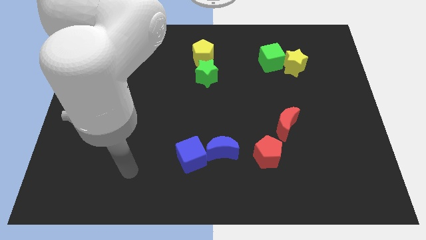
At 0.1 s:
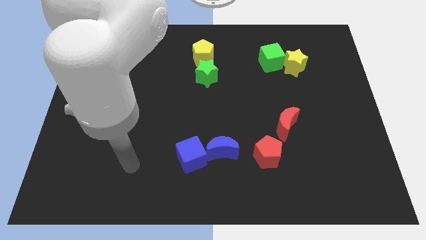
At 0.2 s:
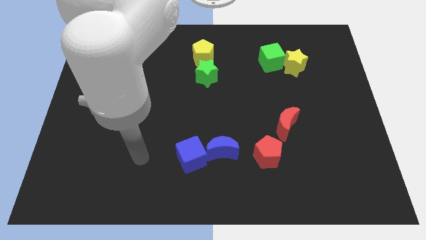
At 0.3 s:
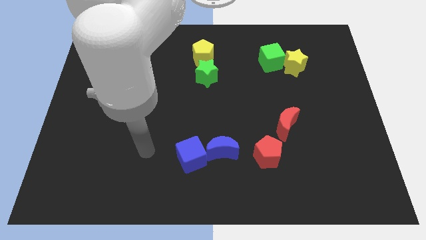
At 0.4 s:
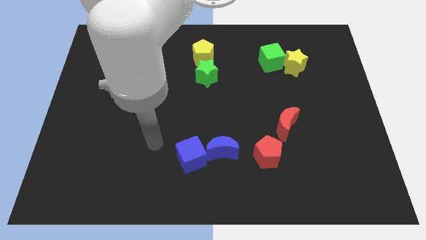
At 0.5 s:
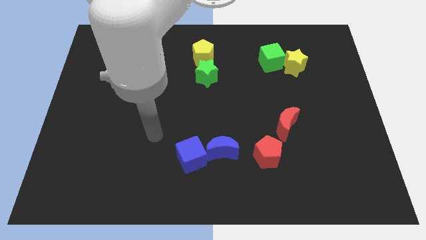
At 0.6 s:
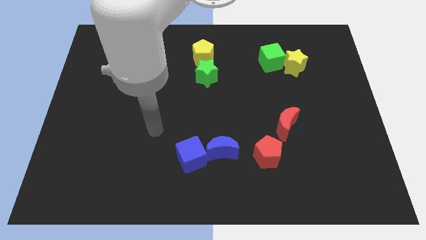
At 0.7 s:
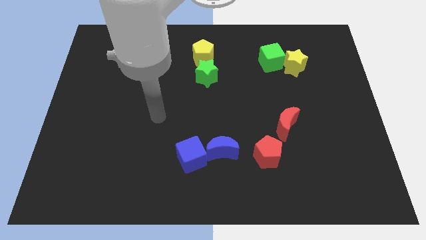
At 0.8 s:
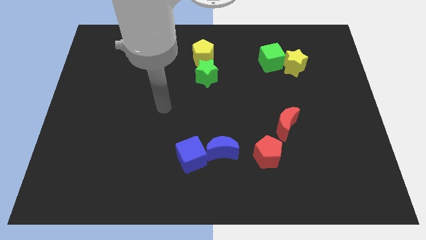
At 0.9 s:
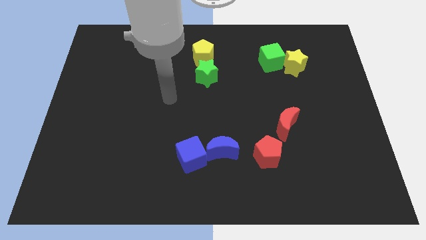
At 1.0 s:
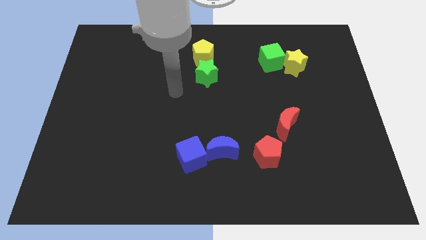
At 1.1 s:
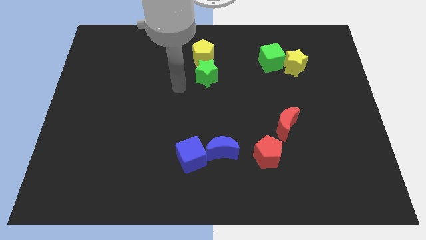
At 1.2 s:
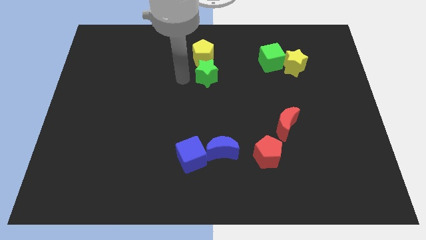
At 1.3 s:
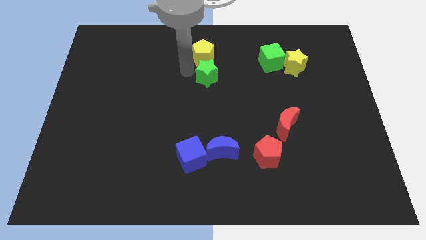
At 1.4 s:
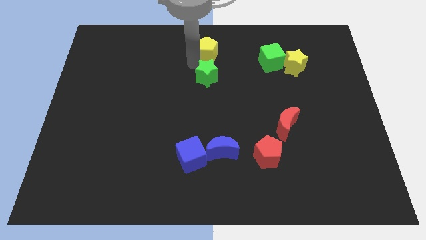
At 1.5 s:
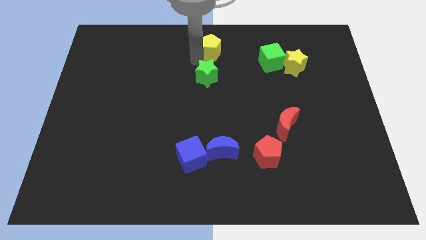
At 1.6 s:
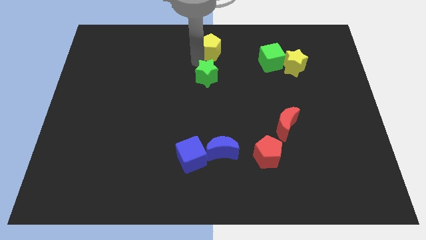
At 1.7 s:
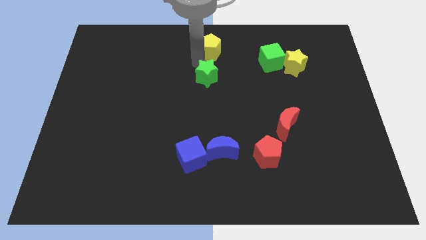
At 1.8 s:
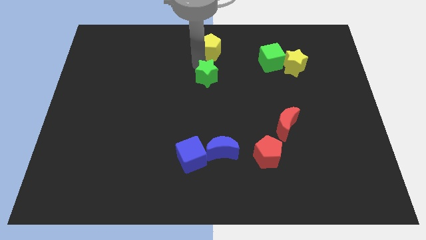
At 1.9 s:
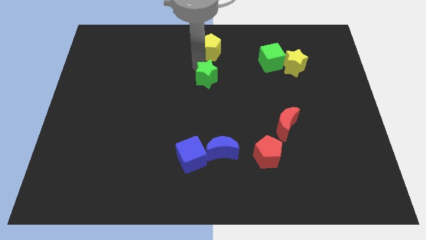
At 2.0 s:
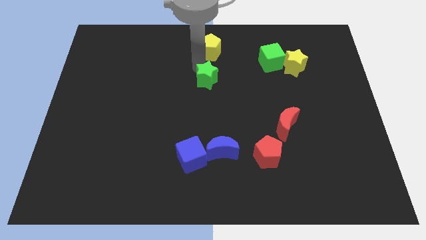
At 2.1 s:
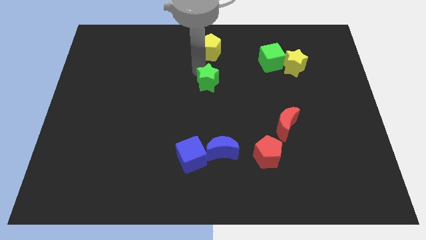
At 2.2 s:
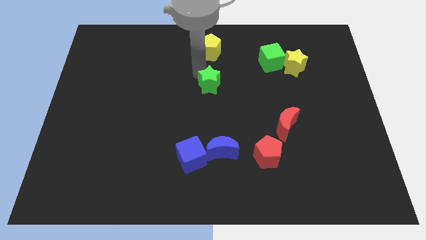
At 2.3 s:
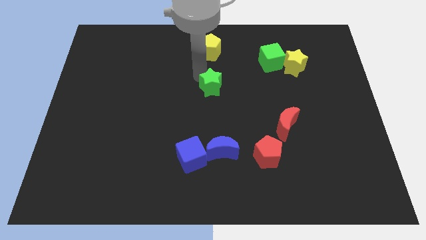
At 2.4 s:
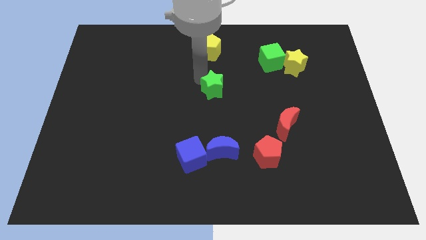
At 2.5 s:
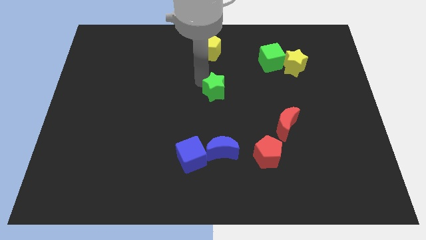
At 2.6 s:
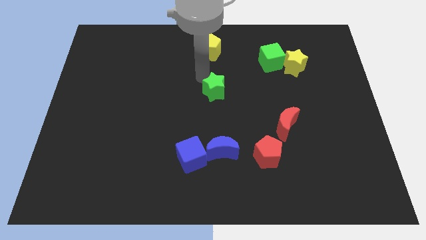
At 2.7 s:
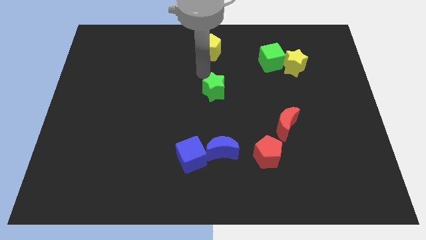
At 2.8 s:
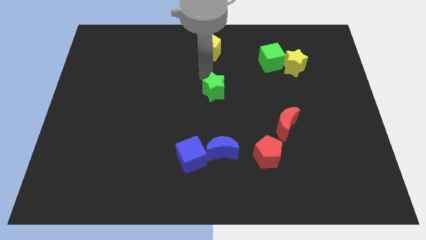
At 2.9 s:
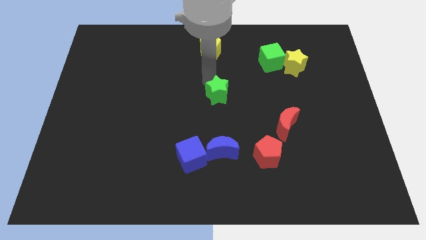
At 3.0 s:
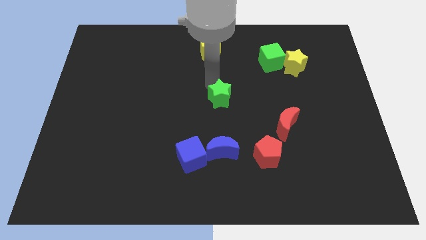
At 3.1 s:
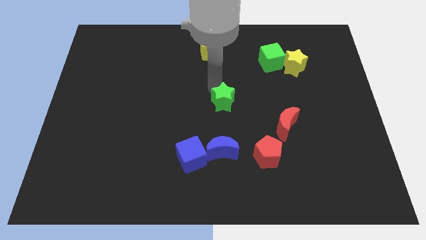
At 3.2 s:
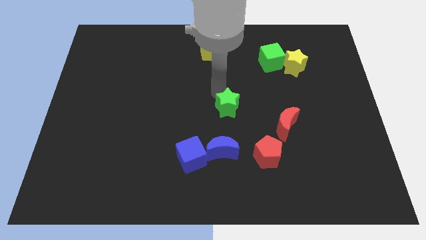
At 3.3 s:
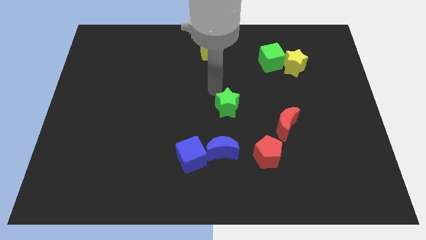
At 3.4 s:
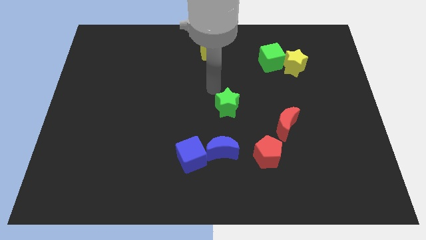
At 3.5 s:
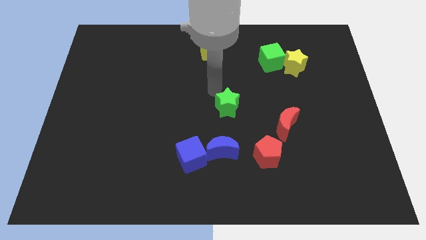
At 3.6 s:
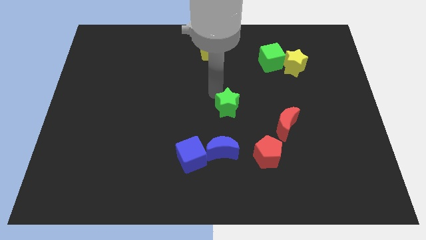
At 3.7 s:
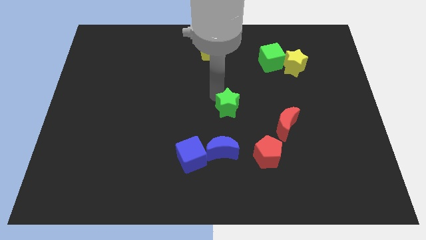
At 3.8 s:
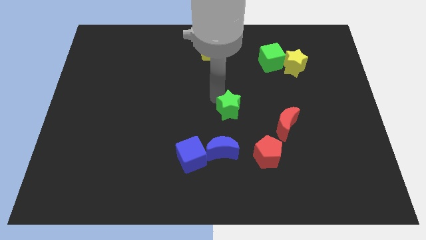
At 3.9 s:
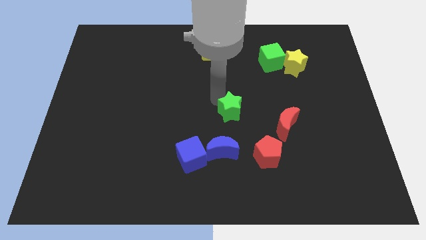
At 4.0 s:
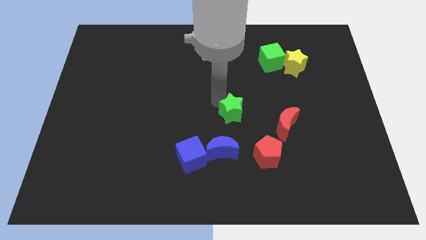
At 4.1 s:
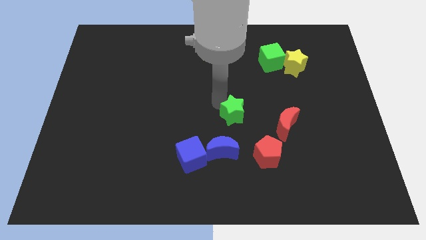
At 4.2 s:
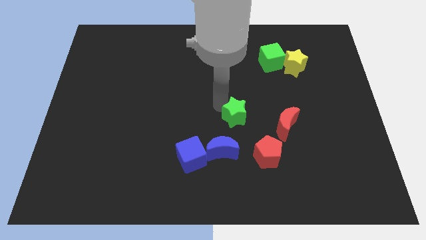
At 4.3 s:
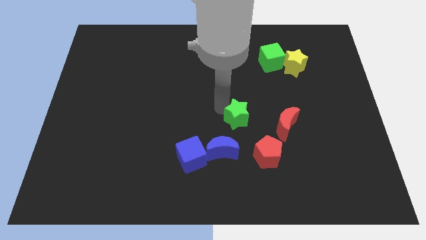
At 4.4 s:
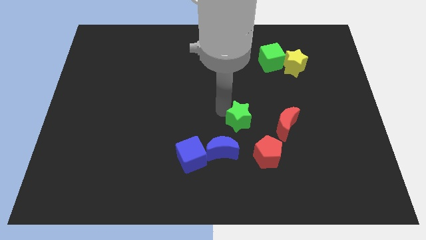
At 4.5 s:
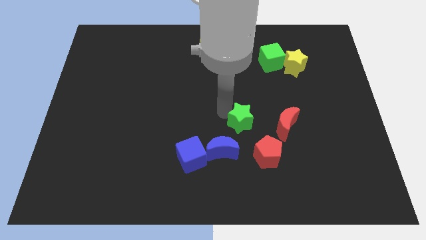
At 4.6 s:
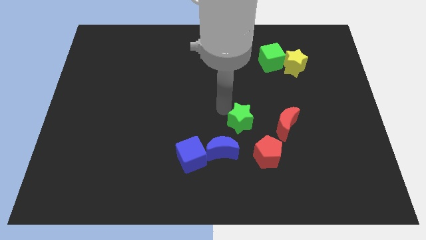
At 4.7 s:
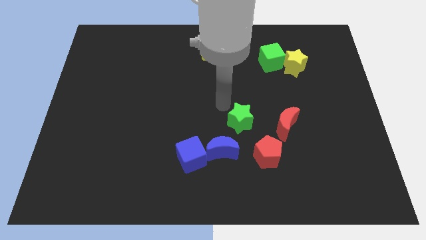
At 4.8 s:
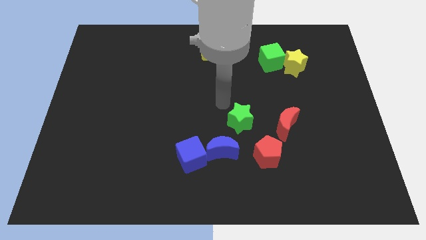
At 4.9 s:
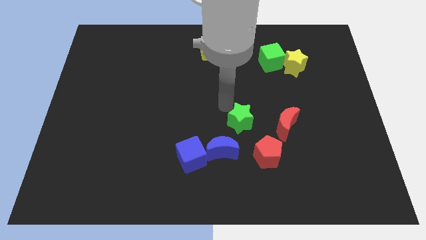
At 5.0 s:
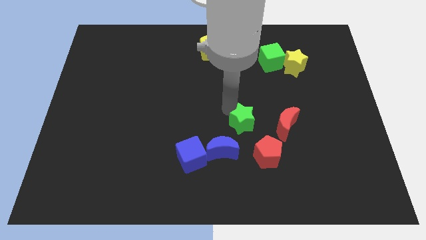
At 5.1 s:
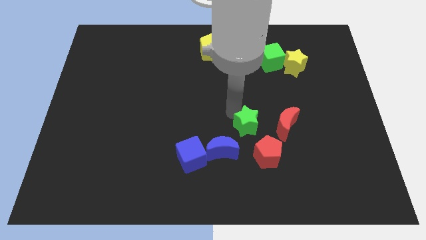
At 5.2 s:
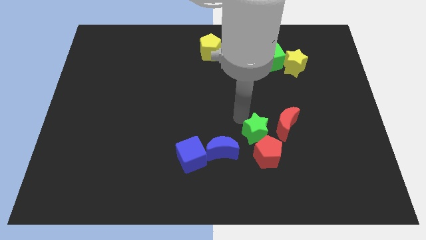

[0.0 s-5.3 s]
push the green star close to the red pentagon

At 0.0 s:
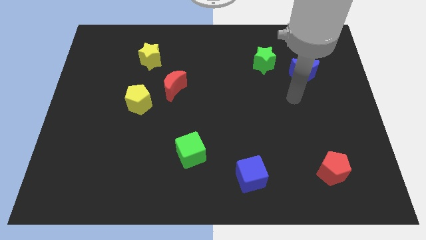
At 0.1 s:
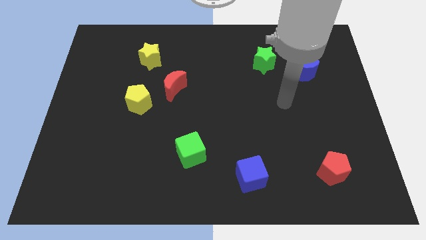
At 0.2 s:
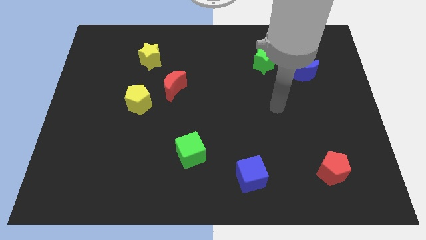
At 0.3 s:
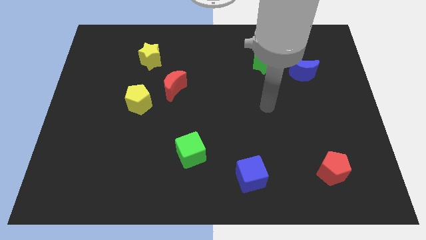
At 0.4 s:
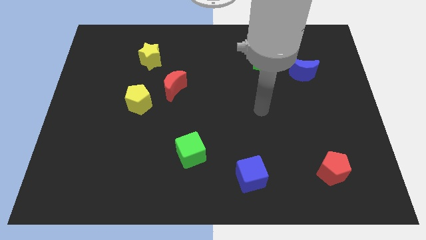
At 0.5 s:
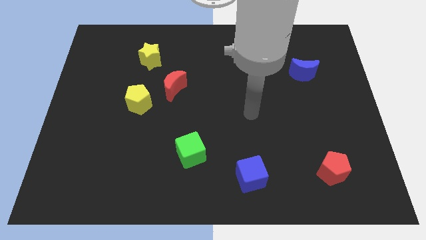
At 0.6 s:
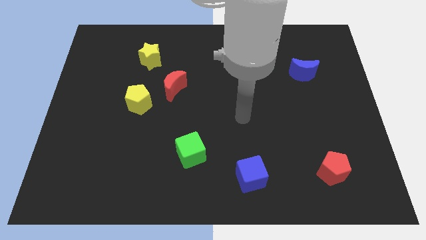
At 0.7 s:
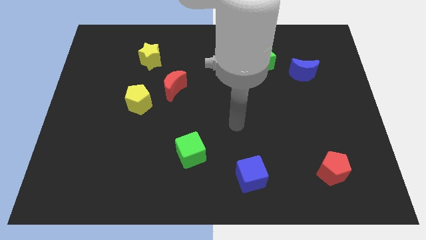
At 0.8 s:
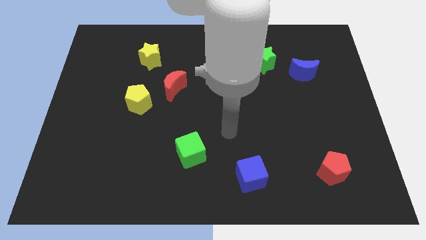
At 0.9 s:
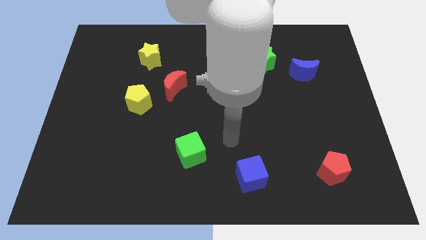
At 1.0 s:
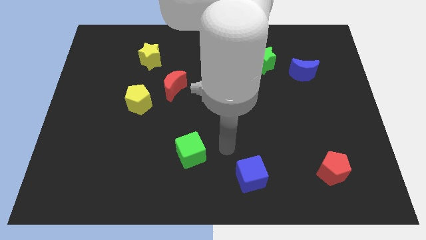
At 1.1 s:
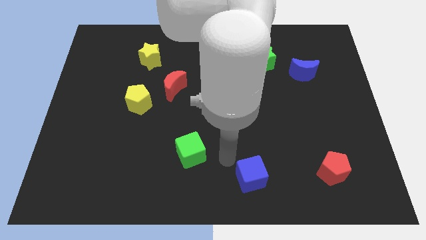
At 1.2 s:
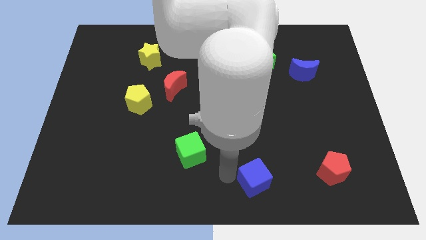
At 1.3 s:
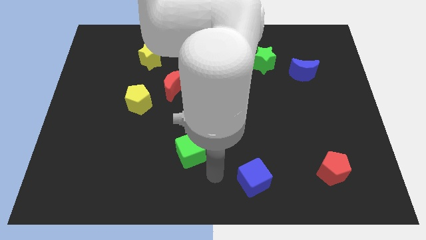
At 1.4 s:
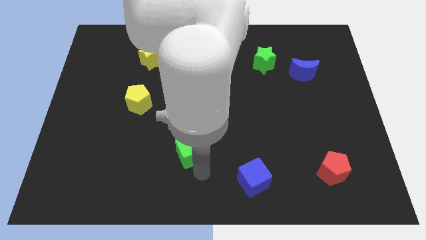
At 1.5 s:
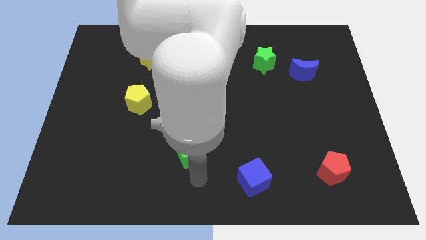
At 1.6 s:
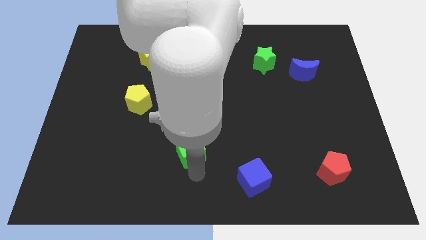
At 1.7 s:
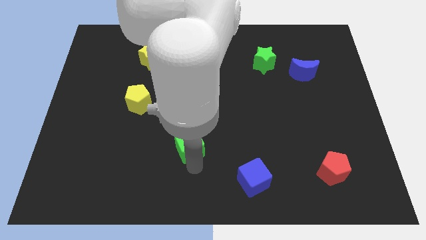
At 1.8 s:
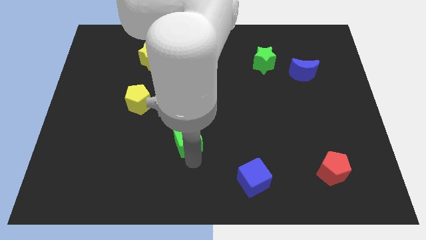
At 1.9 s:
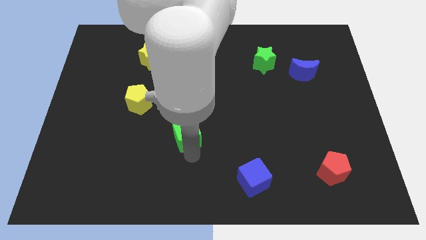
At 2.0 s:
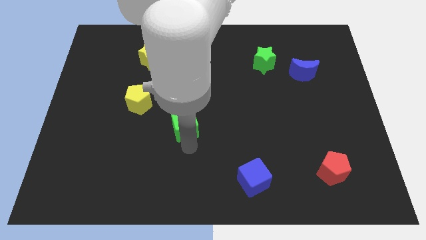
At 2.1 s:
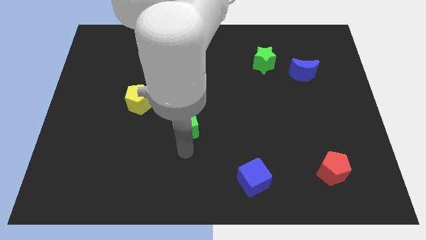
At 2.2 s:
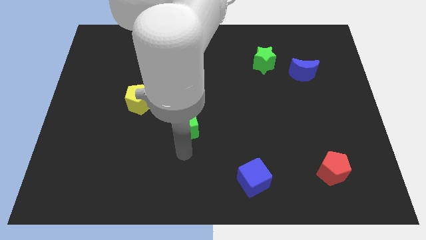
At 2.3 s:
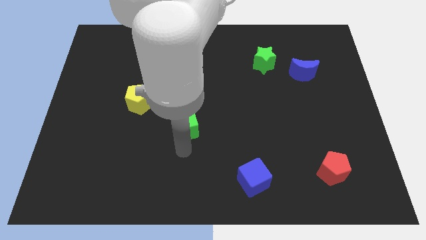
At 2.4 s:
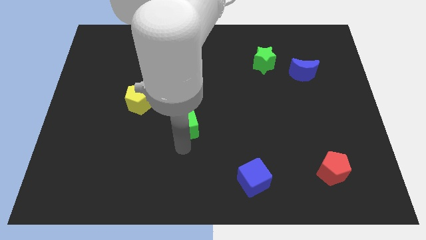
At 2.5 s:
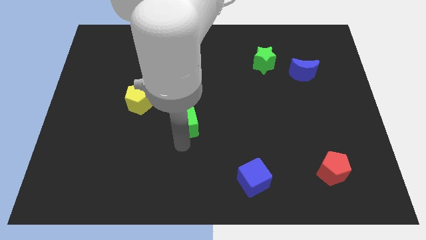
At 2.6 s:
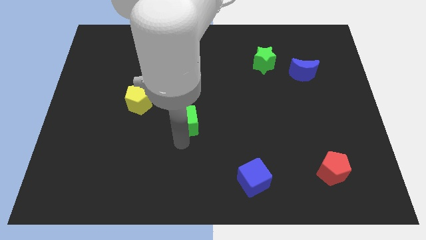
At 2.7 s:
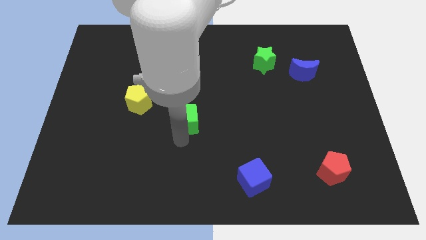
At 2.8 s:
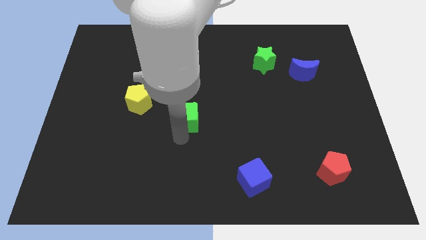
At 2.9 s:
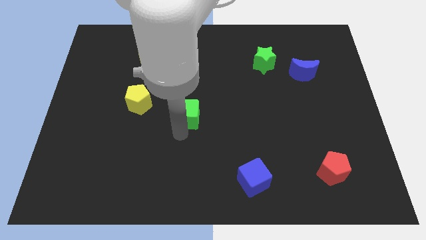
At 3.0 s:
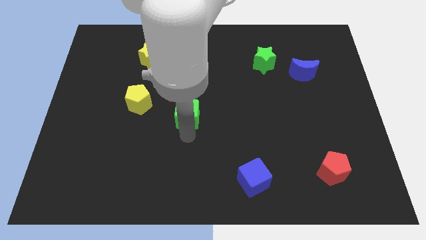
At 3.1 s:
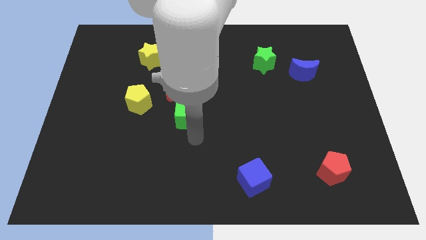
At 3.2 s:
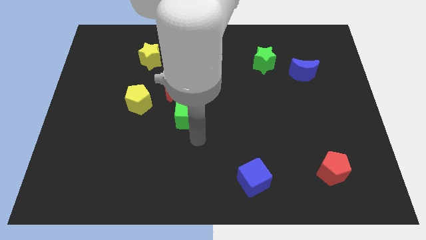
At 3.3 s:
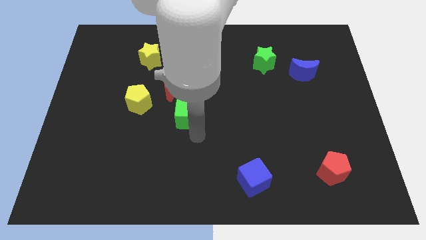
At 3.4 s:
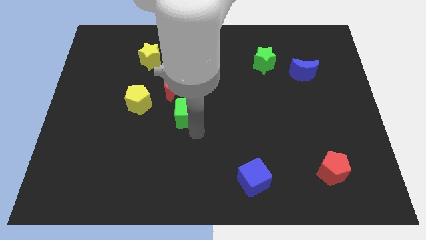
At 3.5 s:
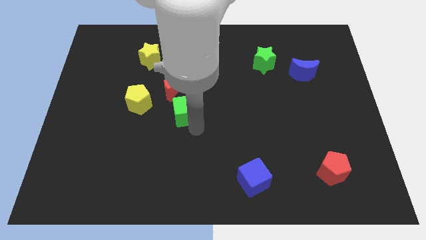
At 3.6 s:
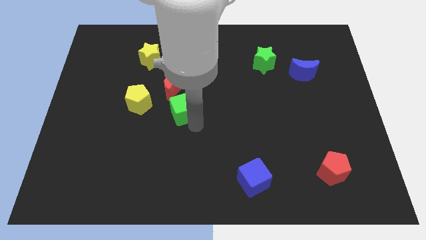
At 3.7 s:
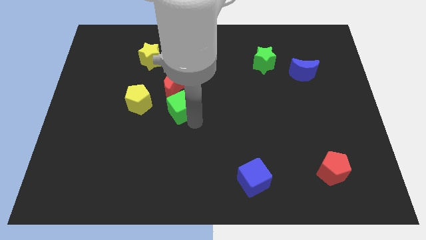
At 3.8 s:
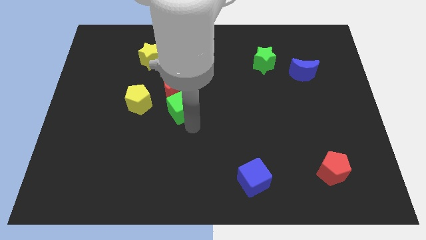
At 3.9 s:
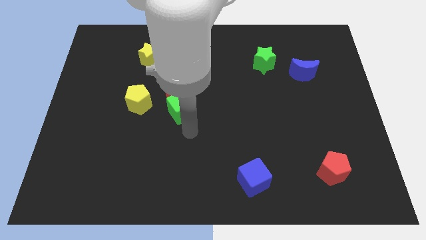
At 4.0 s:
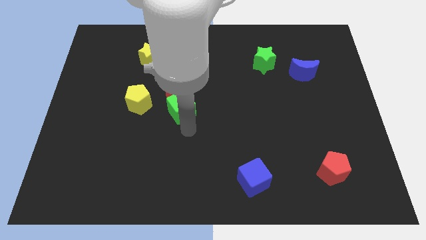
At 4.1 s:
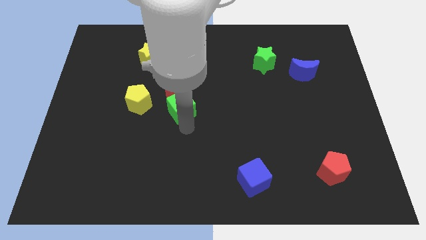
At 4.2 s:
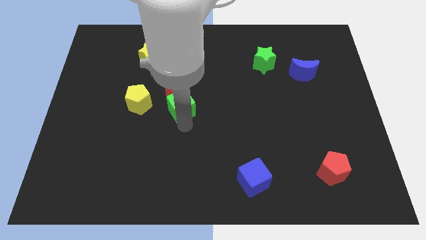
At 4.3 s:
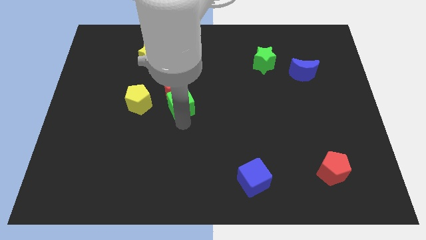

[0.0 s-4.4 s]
push the green cube to the red moon
